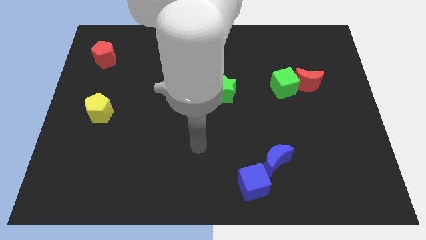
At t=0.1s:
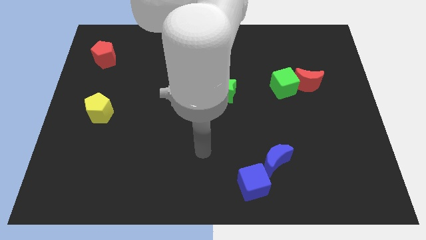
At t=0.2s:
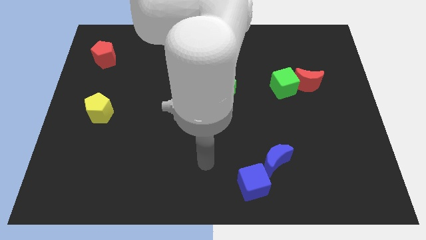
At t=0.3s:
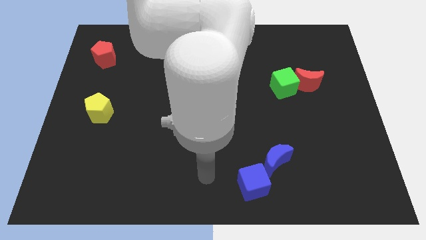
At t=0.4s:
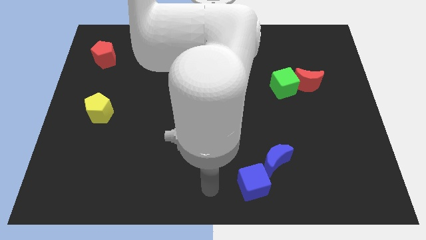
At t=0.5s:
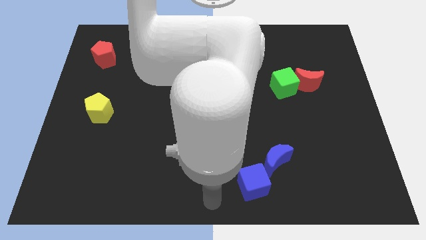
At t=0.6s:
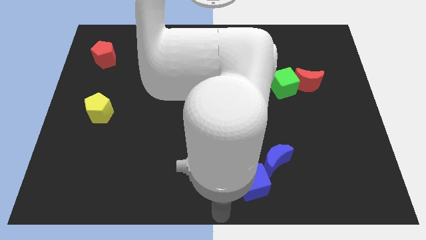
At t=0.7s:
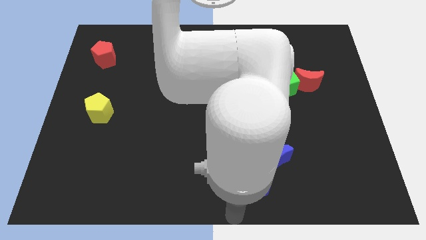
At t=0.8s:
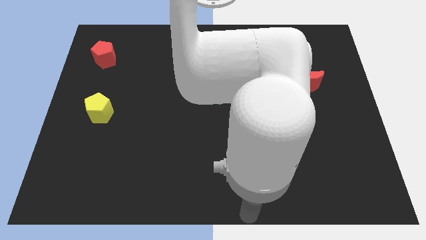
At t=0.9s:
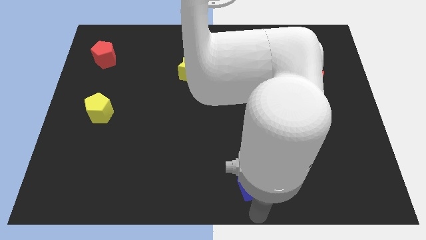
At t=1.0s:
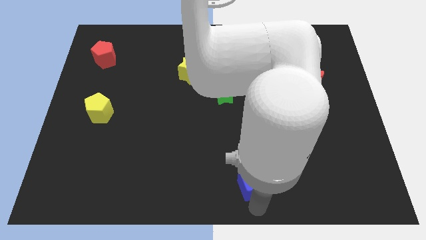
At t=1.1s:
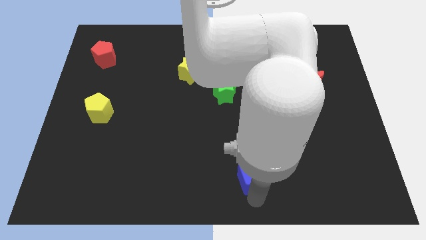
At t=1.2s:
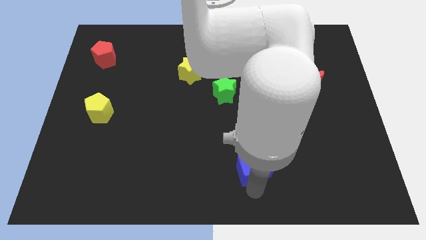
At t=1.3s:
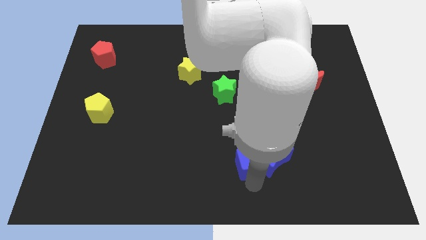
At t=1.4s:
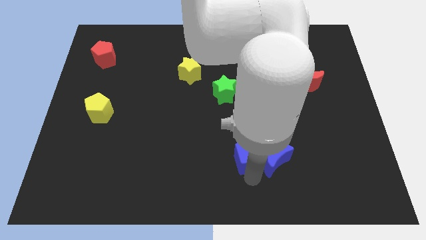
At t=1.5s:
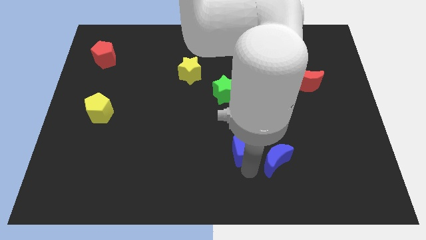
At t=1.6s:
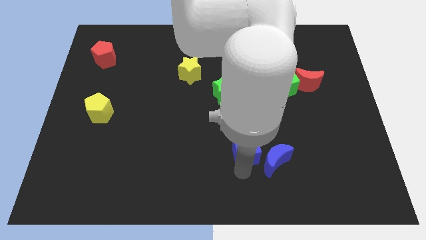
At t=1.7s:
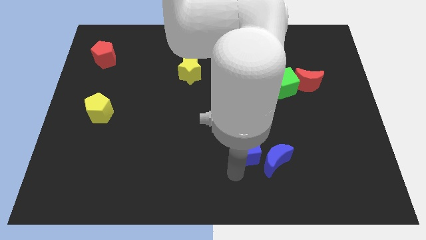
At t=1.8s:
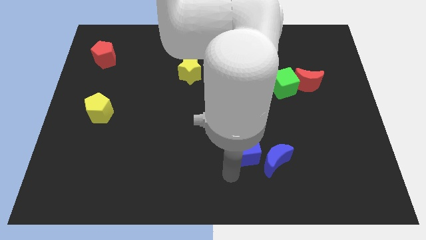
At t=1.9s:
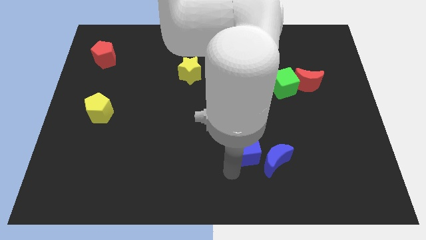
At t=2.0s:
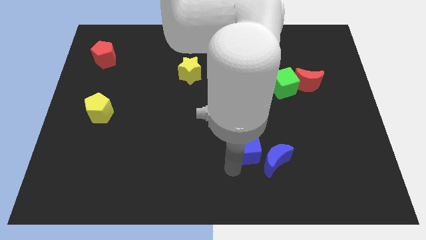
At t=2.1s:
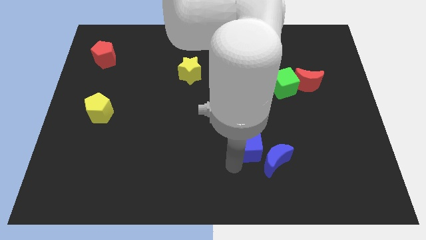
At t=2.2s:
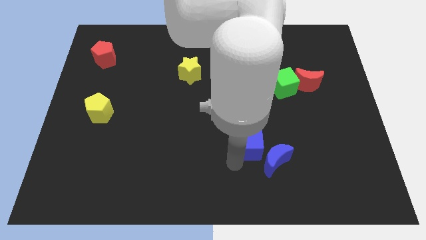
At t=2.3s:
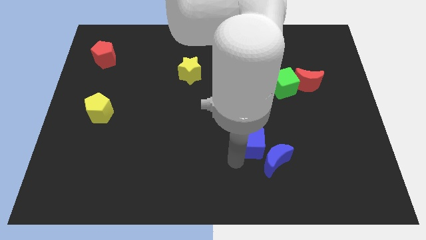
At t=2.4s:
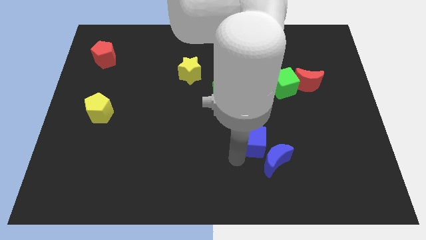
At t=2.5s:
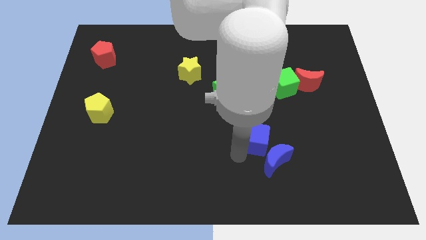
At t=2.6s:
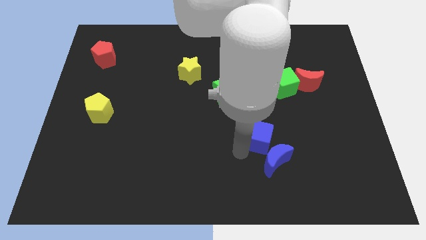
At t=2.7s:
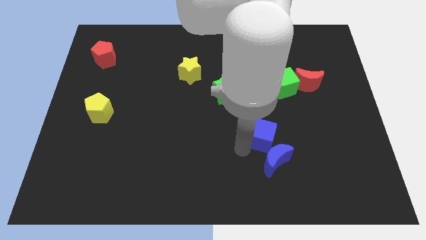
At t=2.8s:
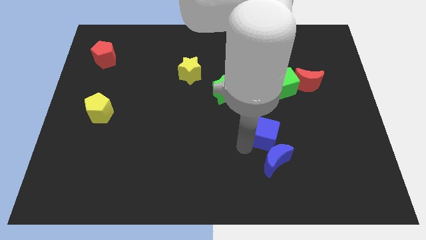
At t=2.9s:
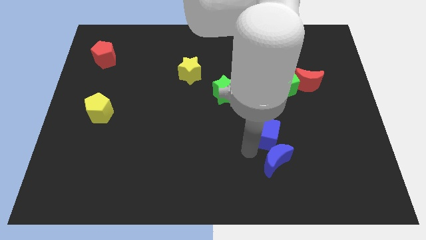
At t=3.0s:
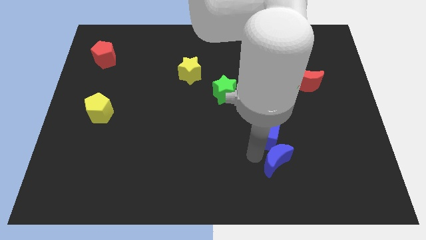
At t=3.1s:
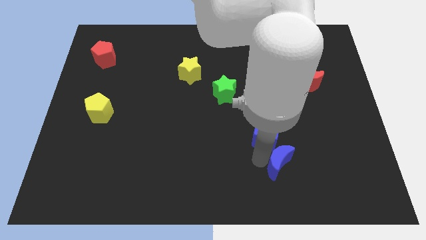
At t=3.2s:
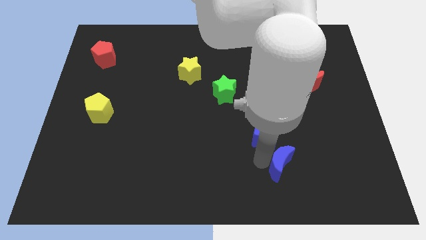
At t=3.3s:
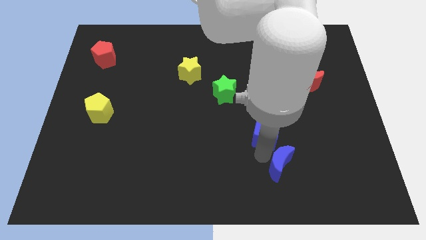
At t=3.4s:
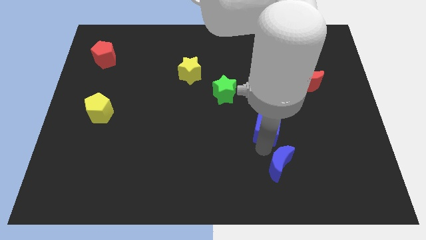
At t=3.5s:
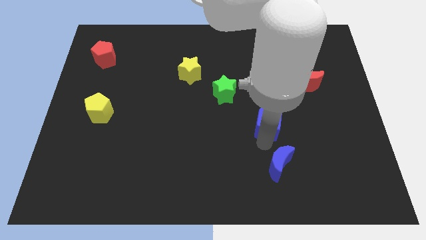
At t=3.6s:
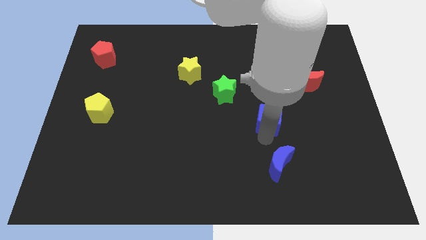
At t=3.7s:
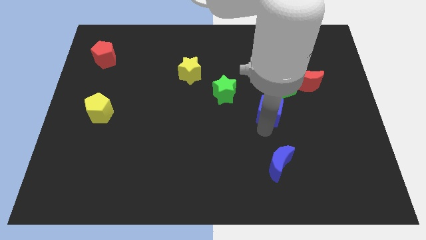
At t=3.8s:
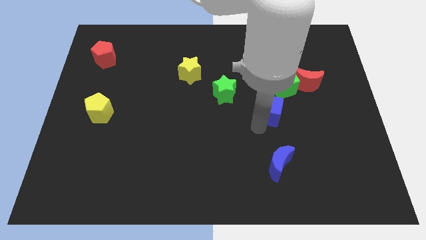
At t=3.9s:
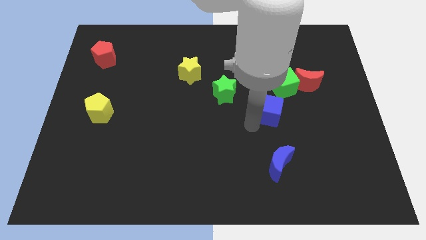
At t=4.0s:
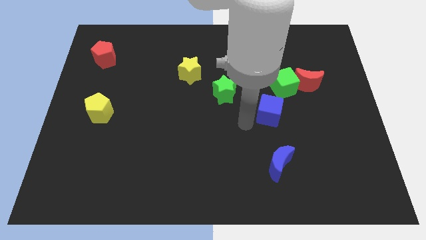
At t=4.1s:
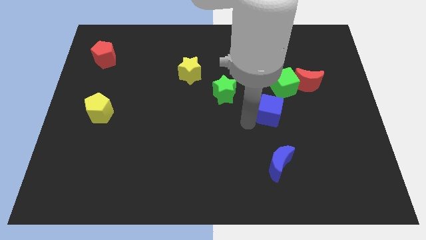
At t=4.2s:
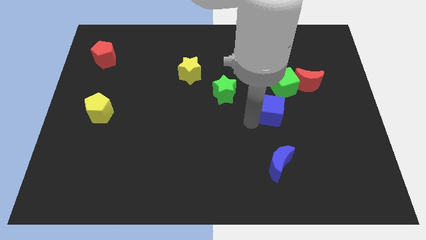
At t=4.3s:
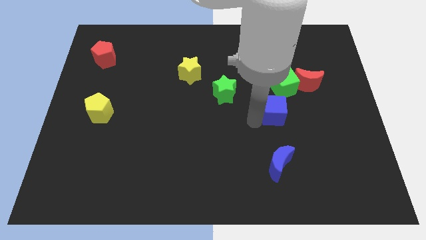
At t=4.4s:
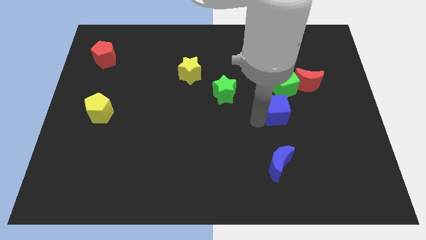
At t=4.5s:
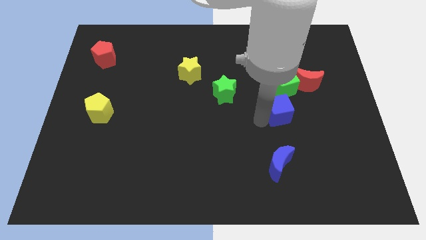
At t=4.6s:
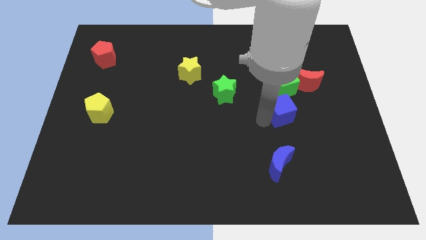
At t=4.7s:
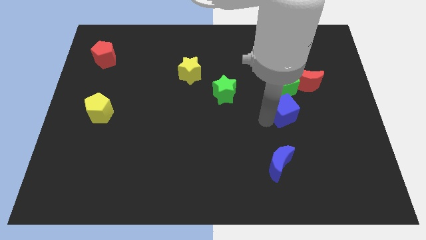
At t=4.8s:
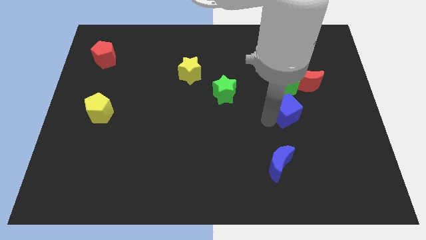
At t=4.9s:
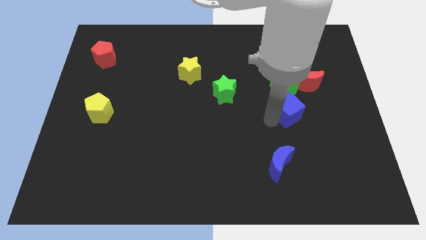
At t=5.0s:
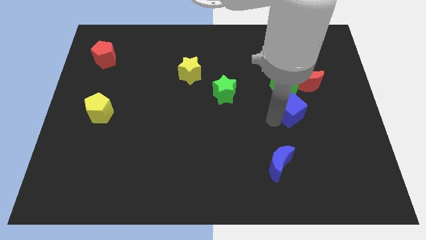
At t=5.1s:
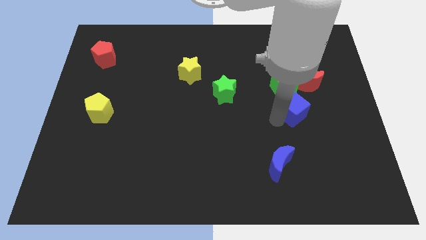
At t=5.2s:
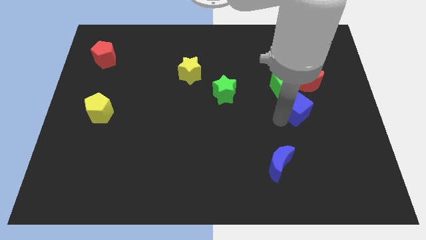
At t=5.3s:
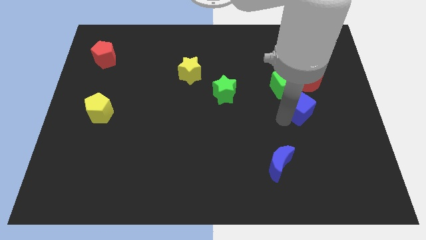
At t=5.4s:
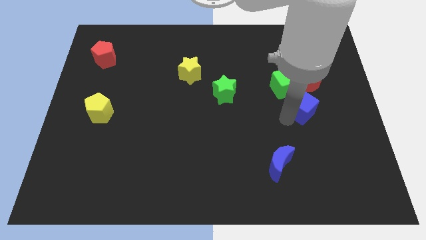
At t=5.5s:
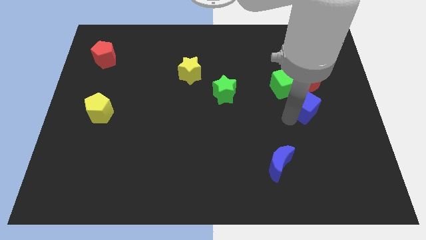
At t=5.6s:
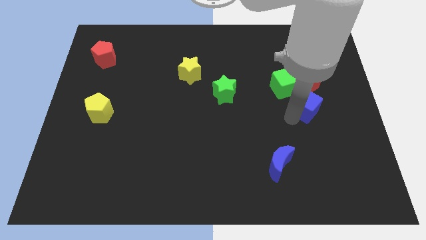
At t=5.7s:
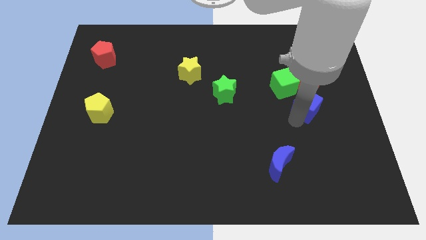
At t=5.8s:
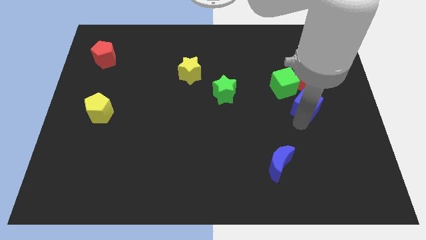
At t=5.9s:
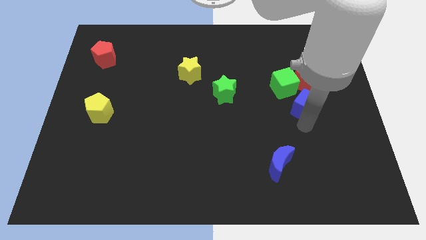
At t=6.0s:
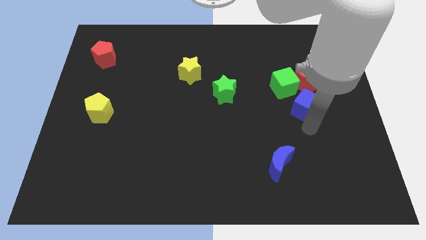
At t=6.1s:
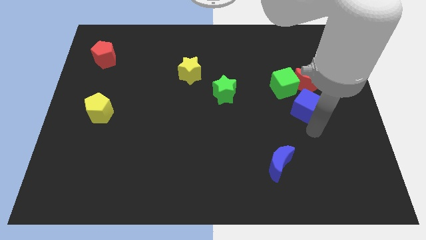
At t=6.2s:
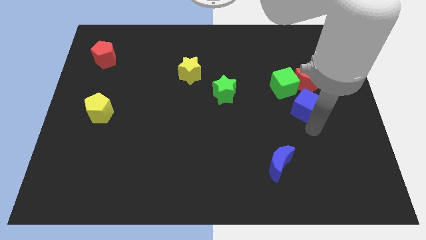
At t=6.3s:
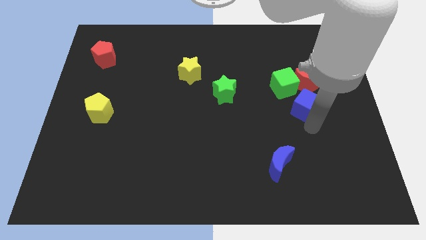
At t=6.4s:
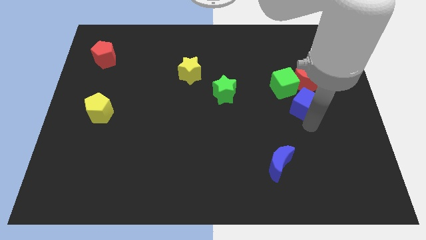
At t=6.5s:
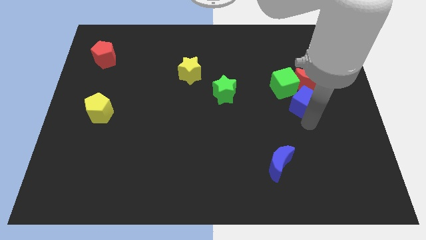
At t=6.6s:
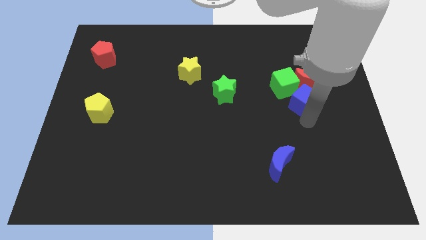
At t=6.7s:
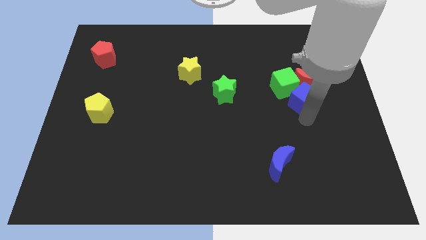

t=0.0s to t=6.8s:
move the blue cube close to the red moon

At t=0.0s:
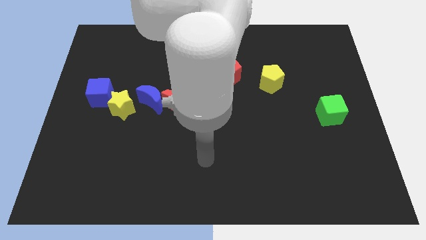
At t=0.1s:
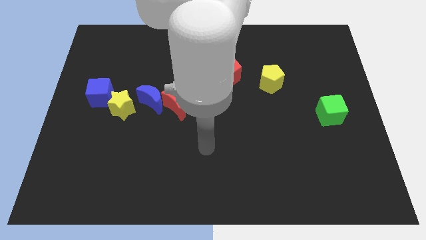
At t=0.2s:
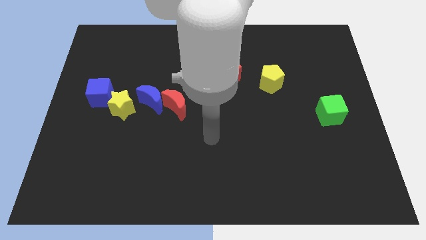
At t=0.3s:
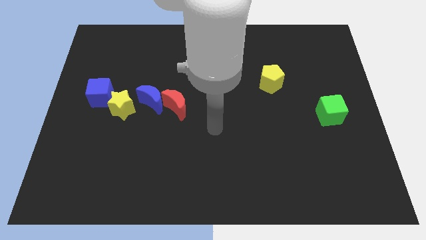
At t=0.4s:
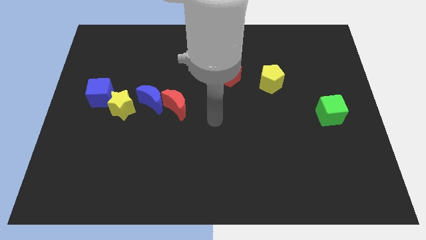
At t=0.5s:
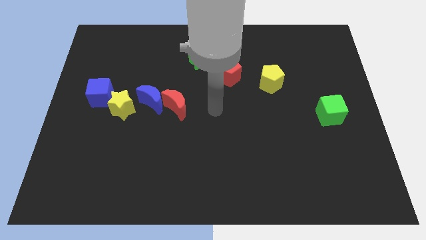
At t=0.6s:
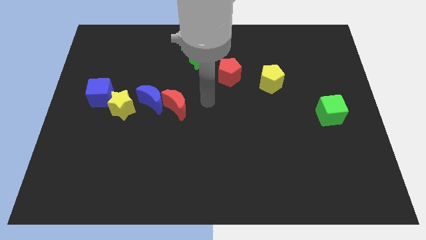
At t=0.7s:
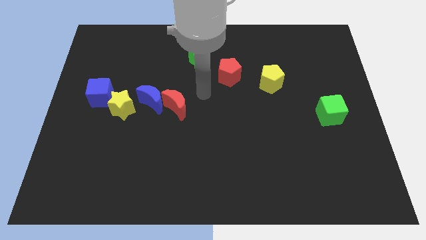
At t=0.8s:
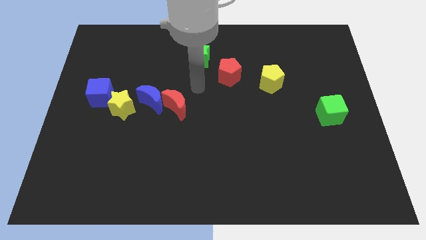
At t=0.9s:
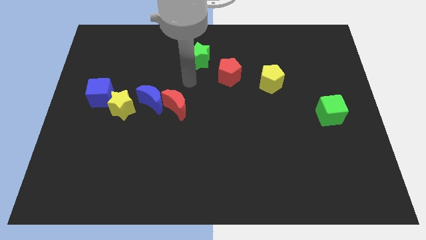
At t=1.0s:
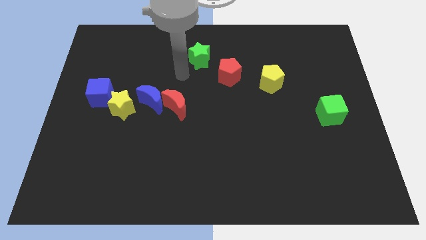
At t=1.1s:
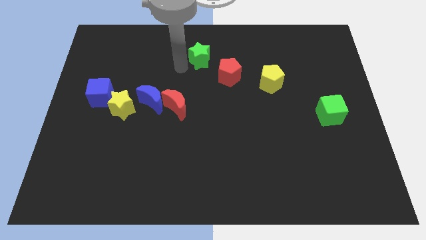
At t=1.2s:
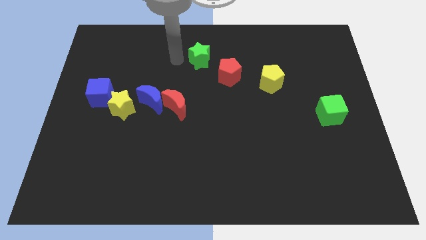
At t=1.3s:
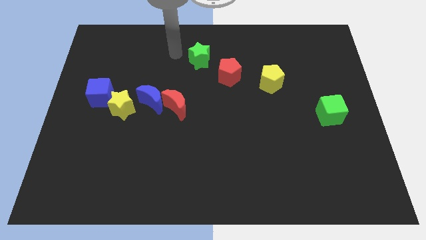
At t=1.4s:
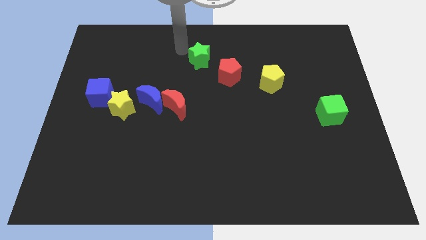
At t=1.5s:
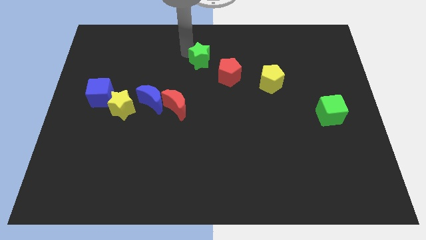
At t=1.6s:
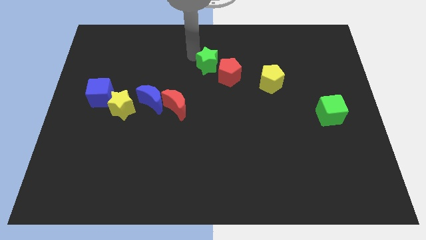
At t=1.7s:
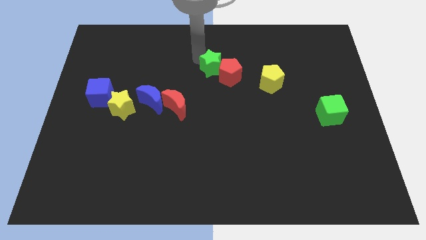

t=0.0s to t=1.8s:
push the green star next to the red pentagon

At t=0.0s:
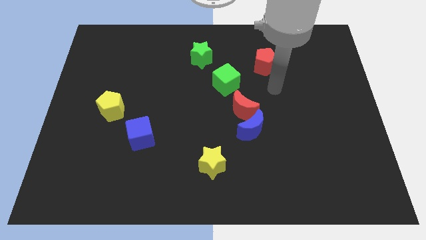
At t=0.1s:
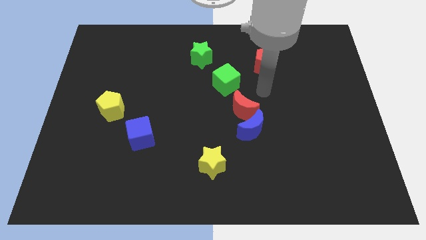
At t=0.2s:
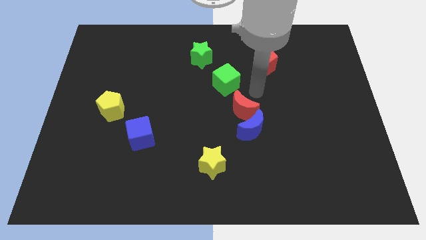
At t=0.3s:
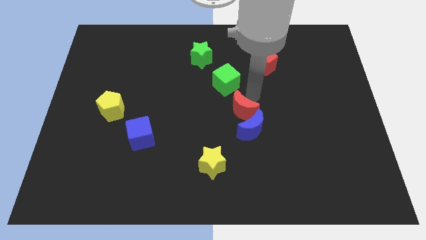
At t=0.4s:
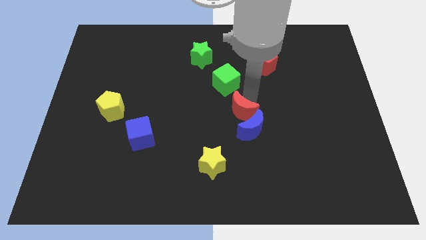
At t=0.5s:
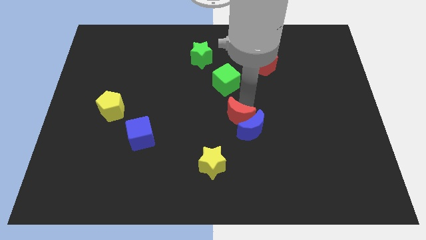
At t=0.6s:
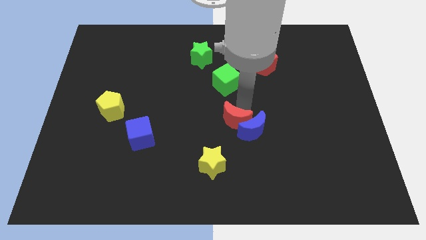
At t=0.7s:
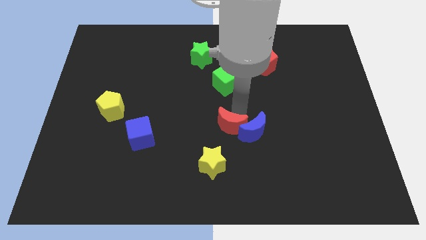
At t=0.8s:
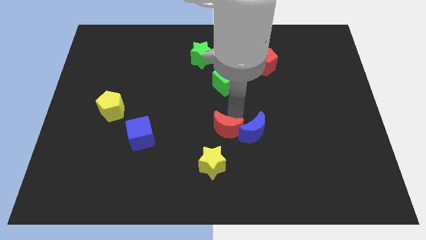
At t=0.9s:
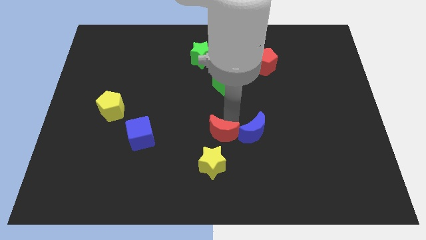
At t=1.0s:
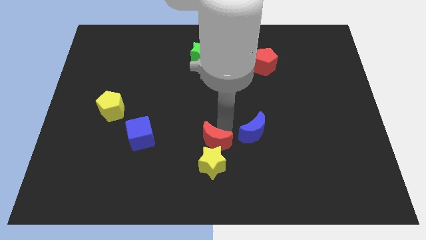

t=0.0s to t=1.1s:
push the red moon towards the yellow star
